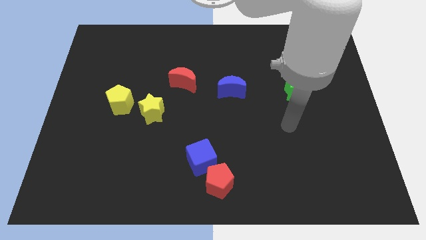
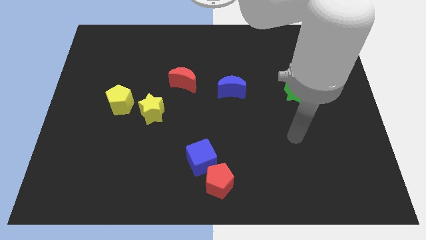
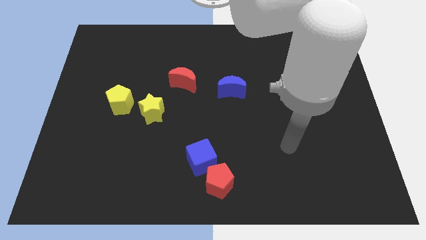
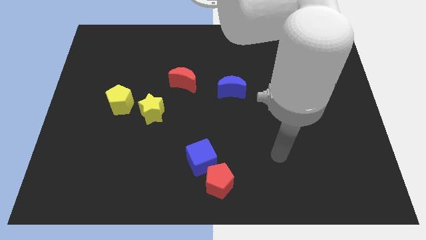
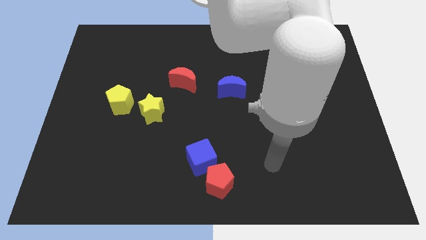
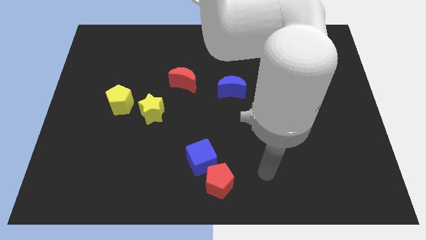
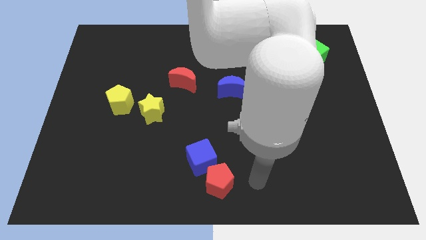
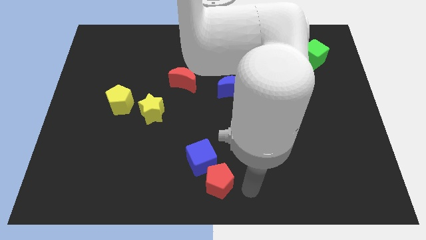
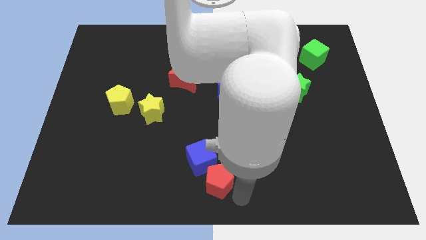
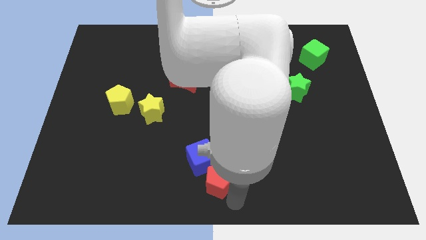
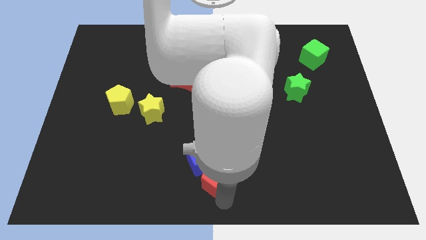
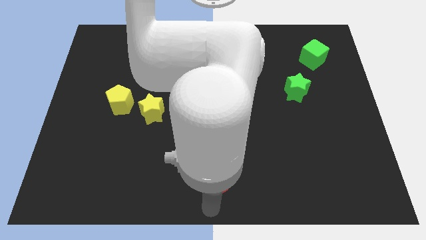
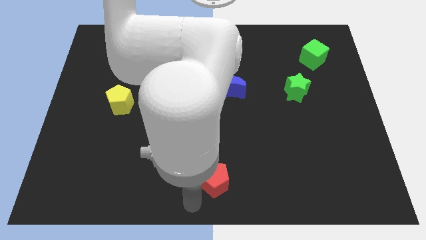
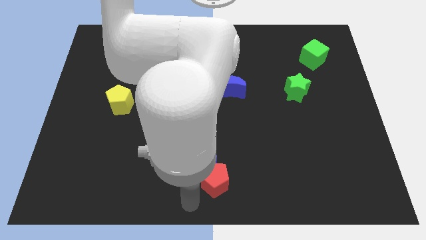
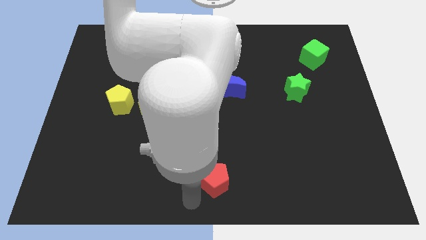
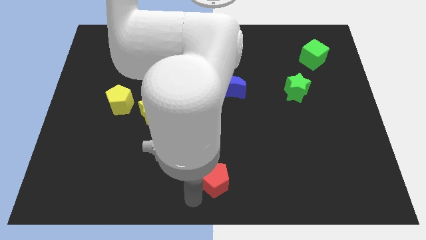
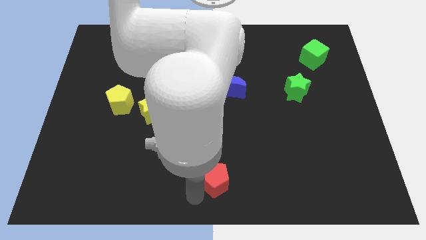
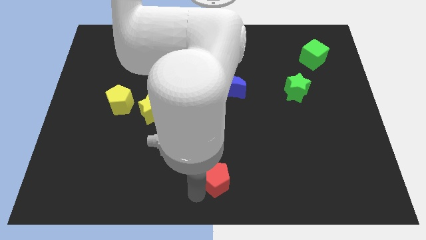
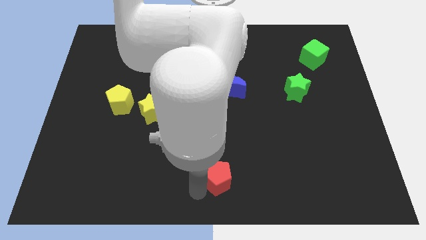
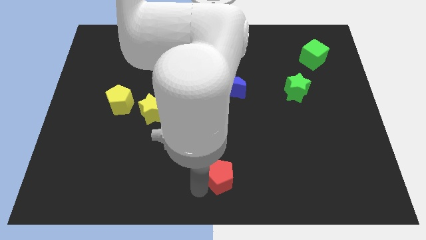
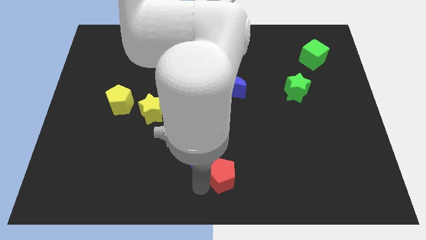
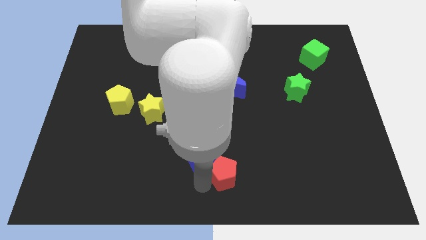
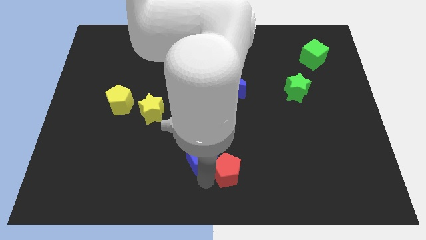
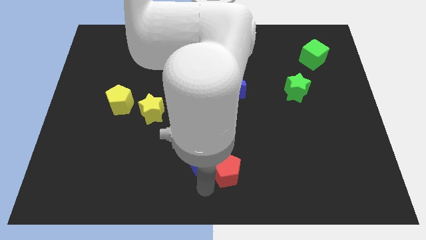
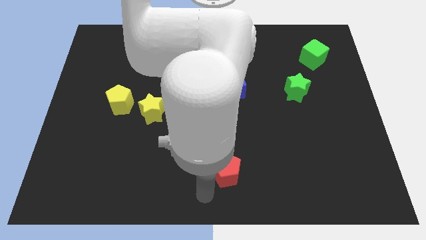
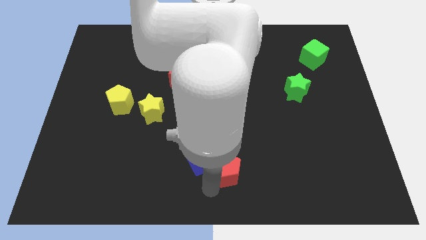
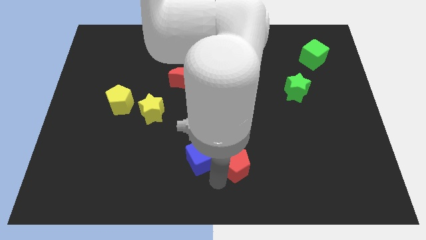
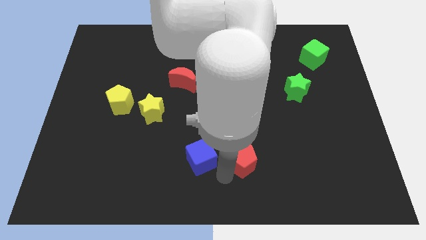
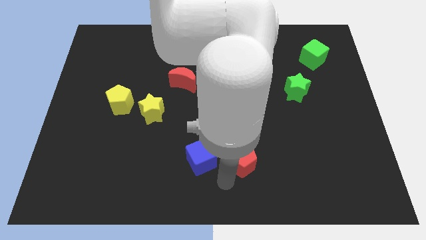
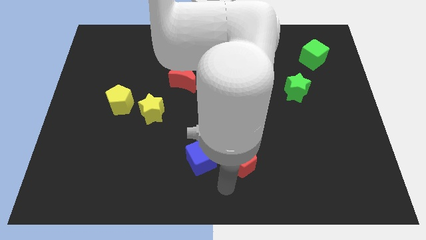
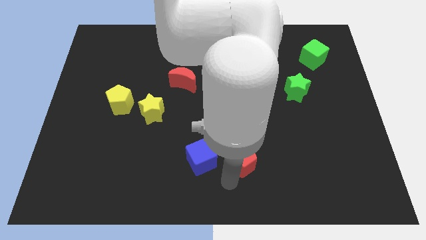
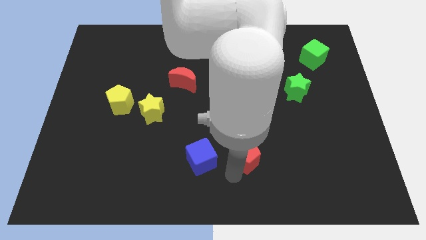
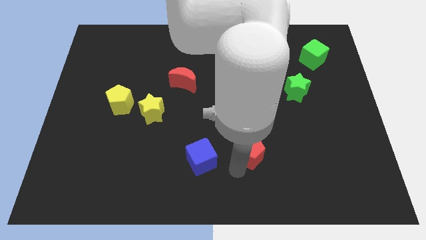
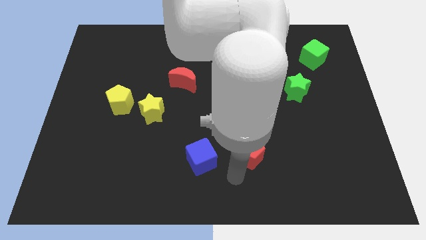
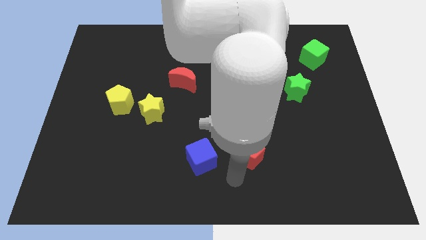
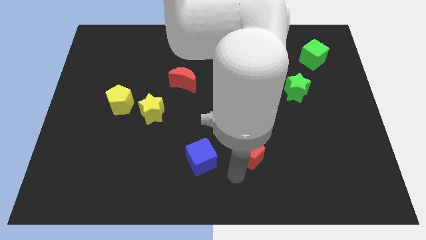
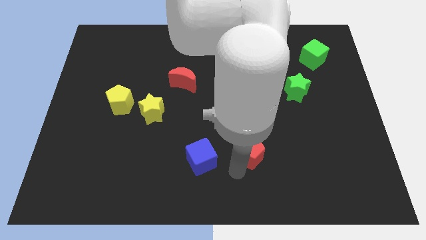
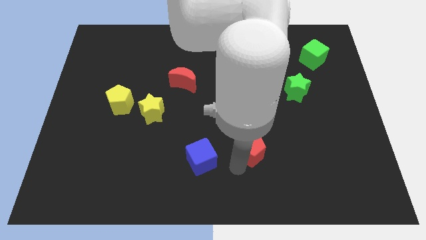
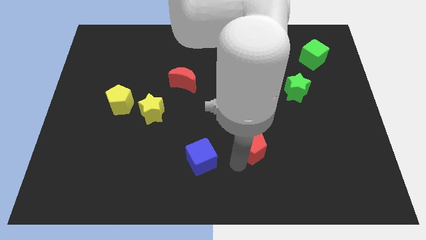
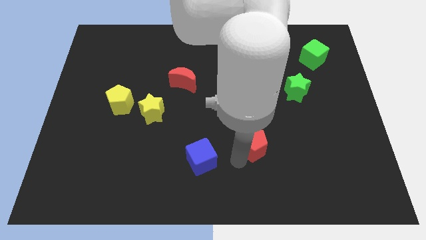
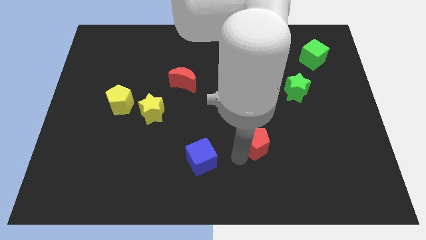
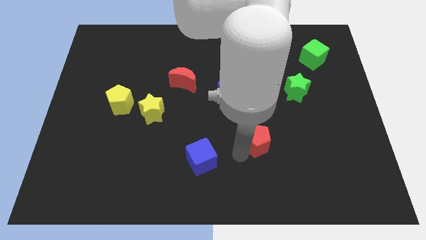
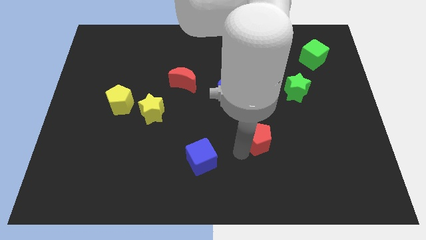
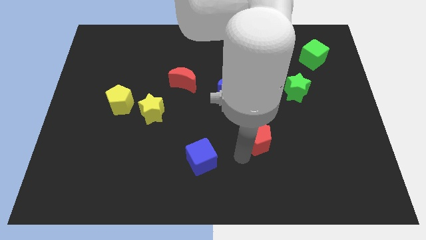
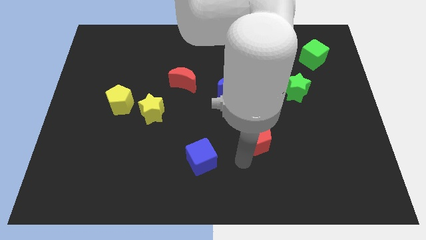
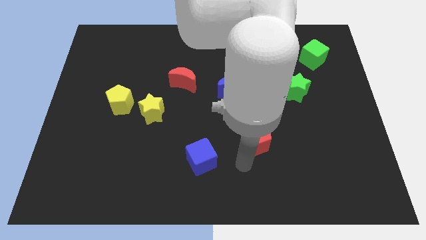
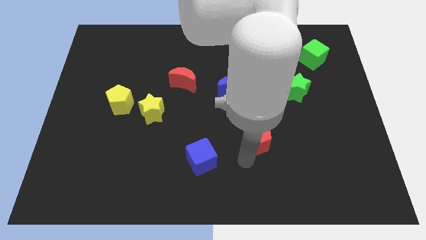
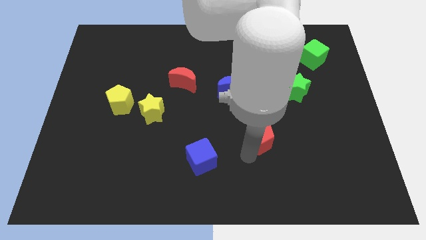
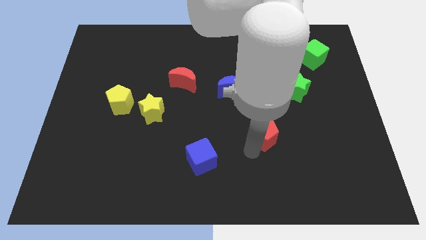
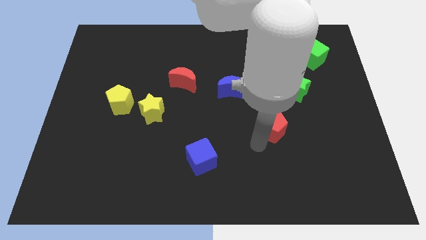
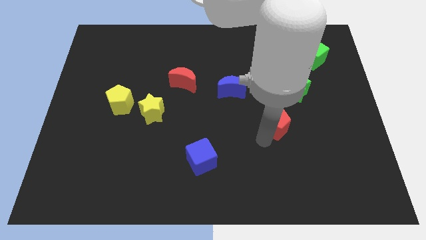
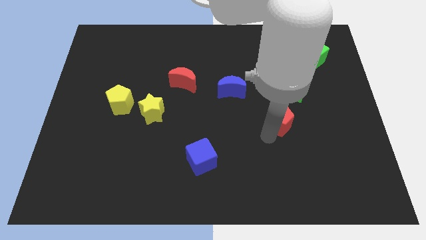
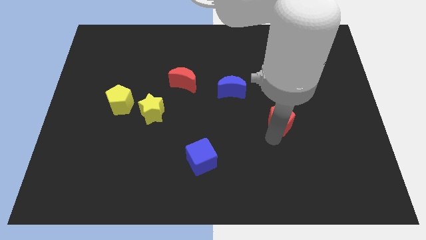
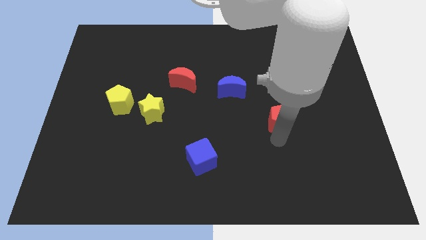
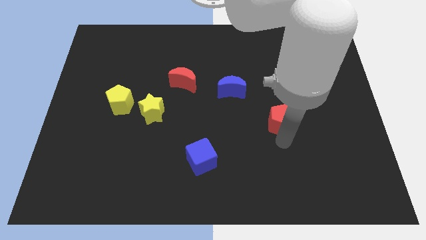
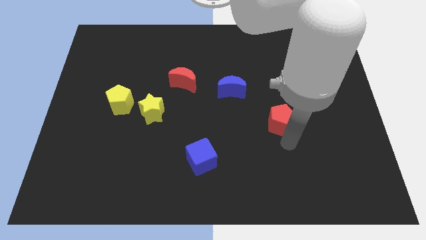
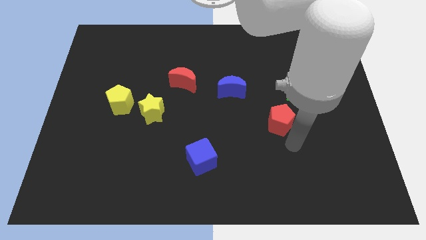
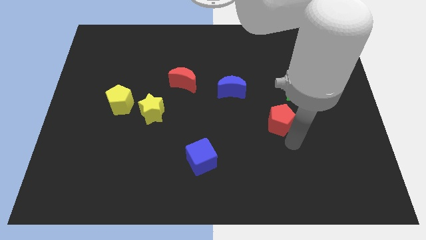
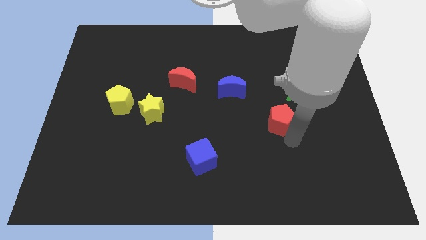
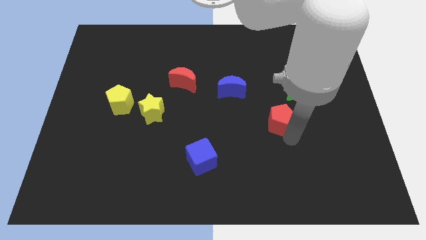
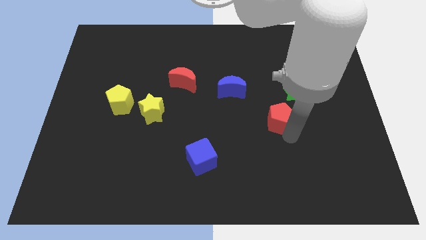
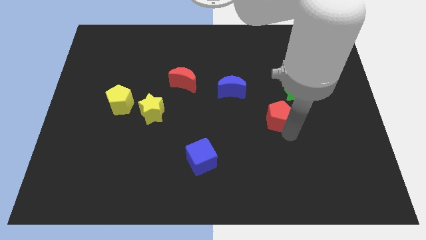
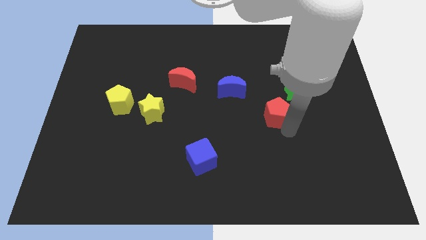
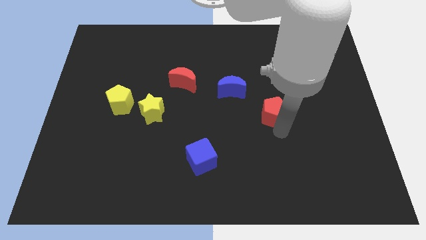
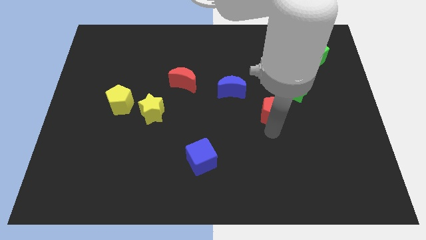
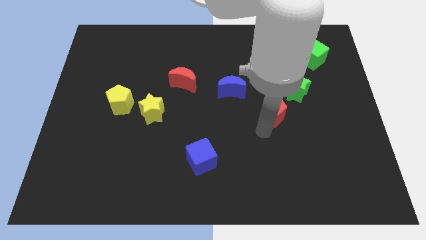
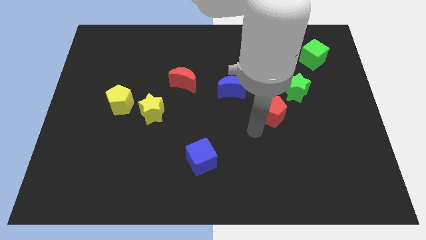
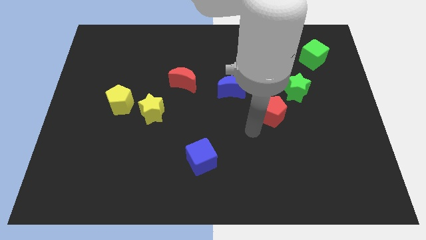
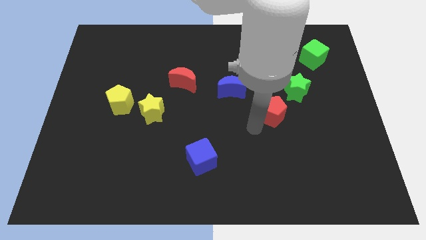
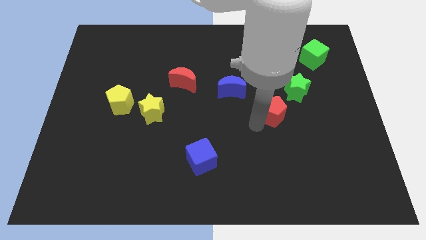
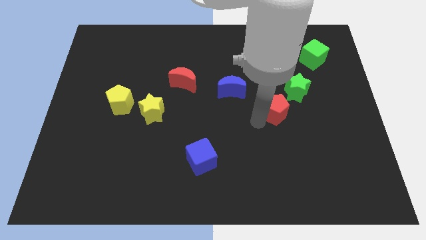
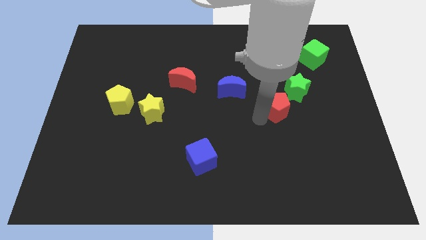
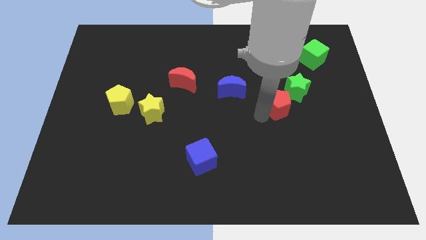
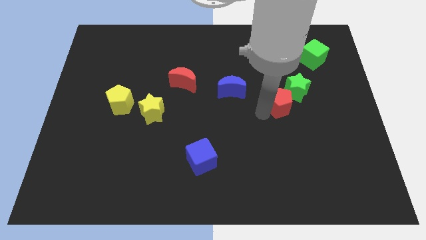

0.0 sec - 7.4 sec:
put the red pentagon next to the green star
